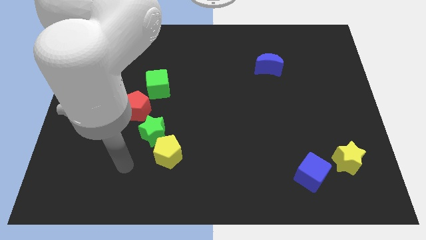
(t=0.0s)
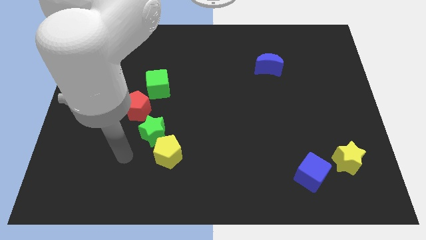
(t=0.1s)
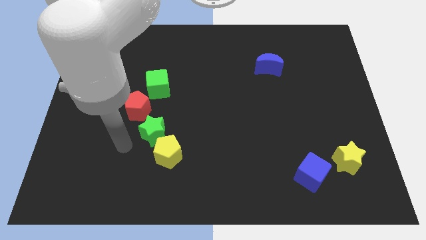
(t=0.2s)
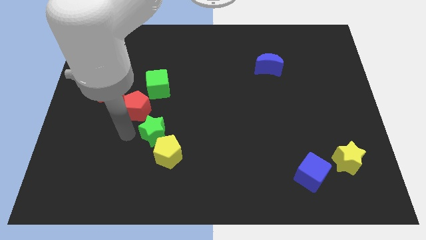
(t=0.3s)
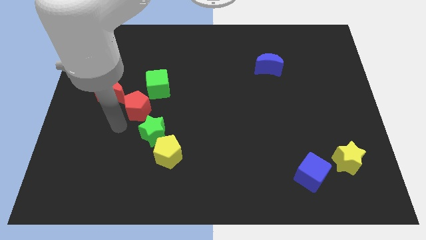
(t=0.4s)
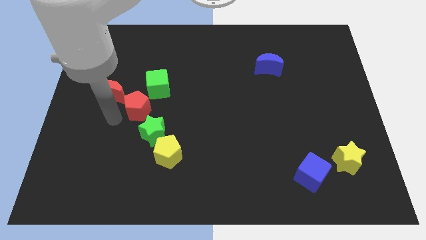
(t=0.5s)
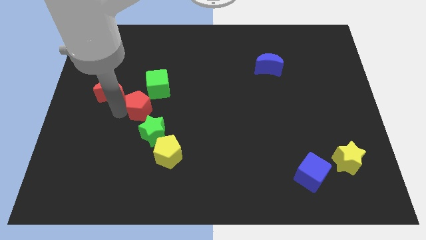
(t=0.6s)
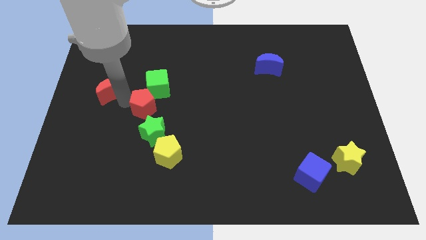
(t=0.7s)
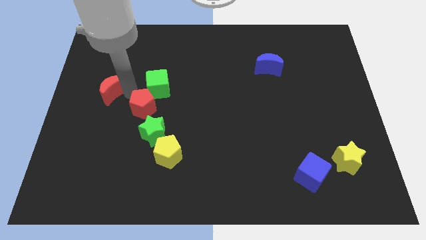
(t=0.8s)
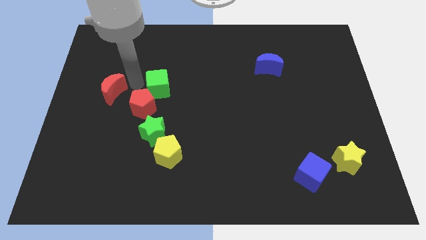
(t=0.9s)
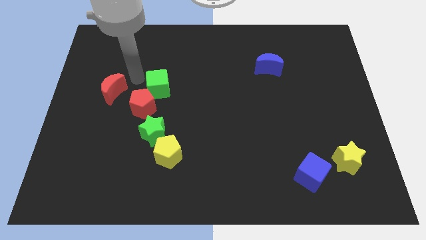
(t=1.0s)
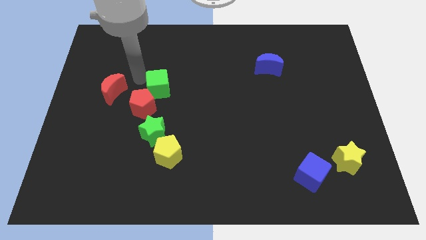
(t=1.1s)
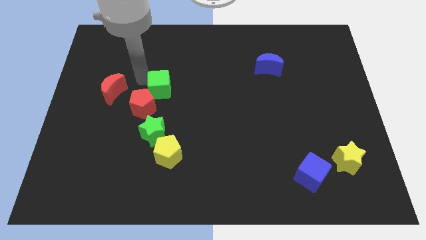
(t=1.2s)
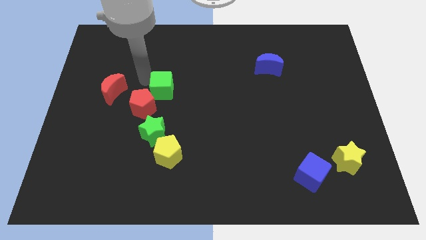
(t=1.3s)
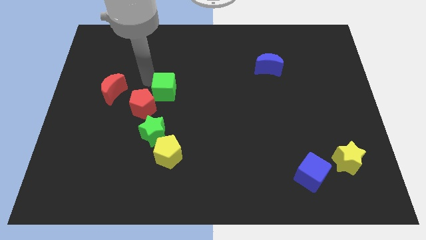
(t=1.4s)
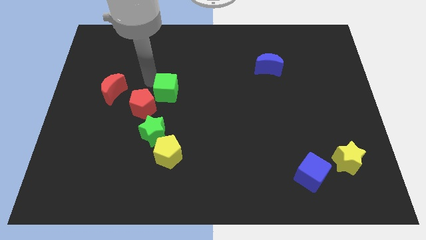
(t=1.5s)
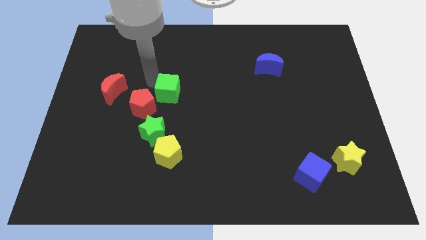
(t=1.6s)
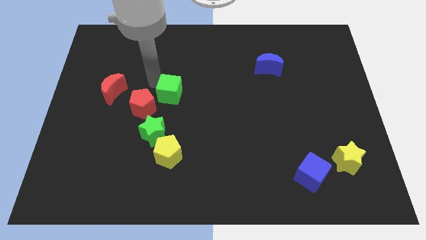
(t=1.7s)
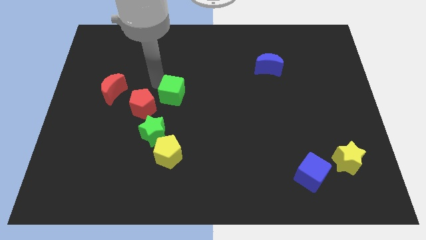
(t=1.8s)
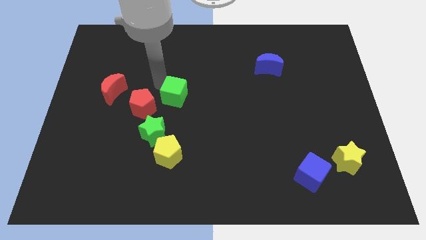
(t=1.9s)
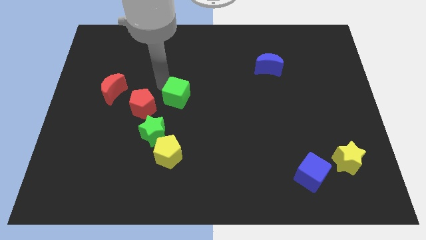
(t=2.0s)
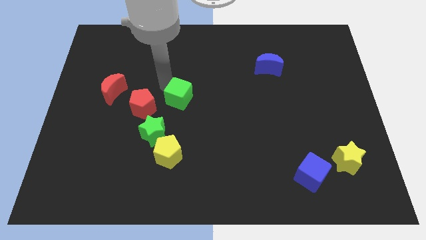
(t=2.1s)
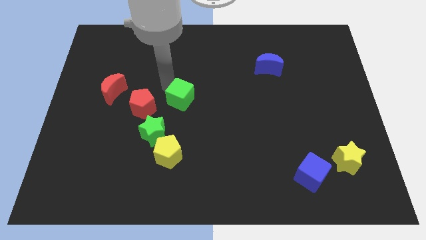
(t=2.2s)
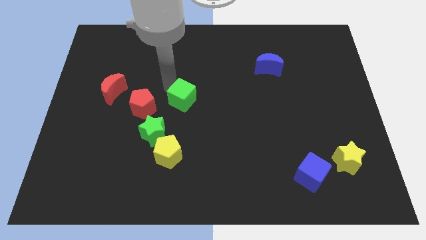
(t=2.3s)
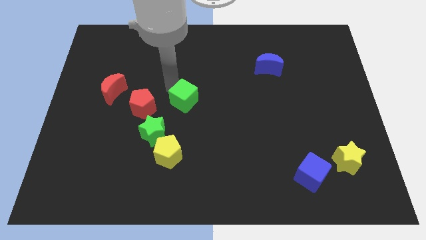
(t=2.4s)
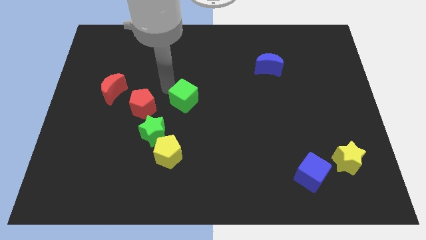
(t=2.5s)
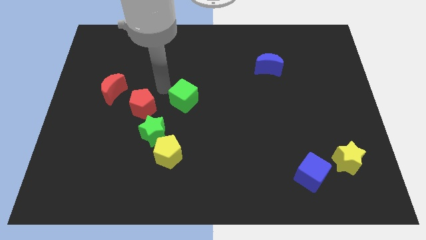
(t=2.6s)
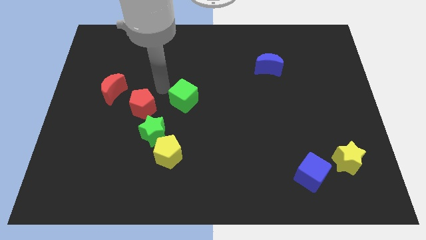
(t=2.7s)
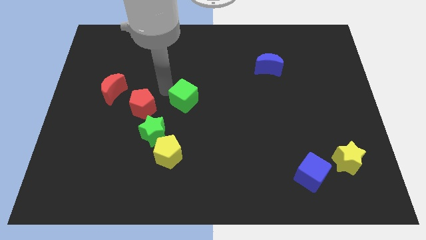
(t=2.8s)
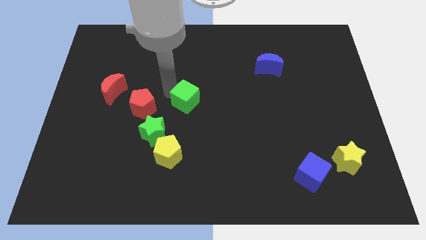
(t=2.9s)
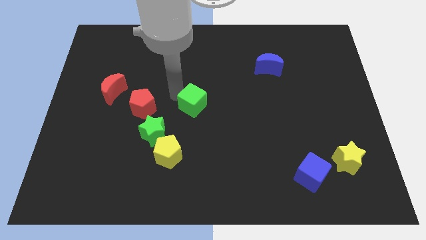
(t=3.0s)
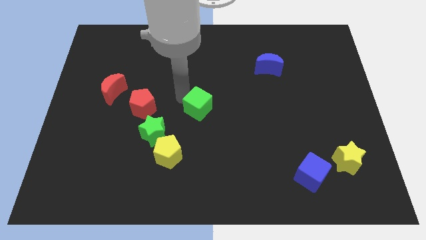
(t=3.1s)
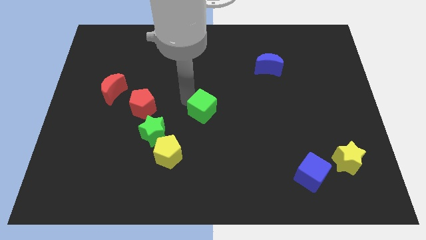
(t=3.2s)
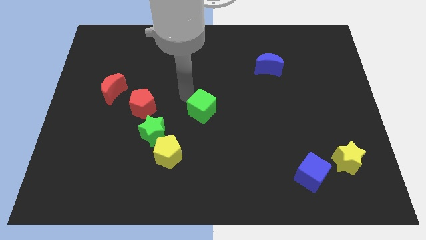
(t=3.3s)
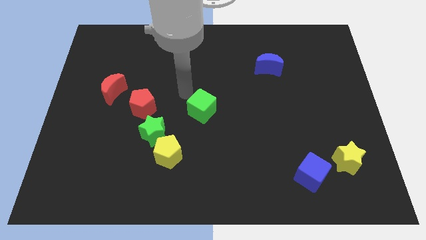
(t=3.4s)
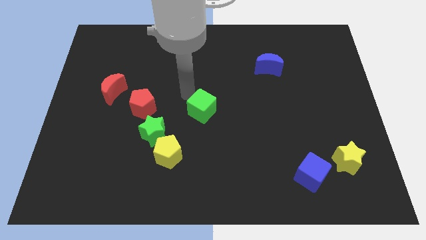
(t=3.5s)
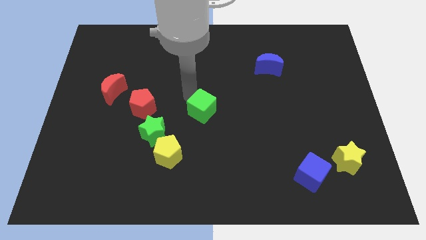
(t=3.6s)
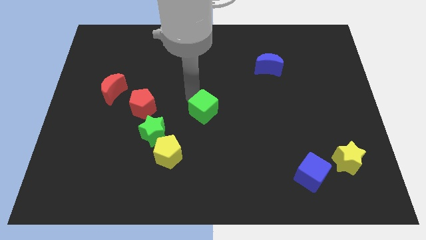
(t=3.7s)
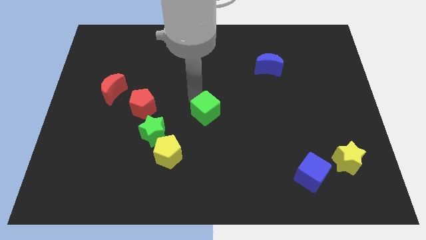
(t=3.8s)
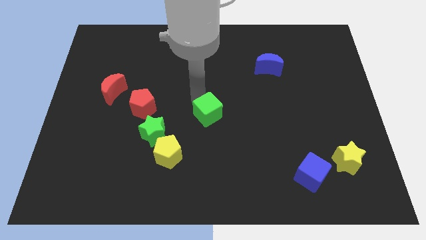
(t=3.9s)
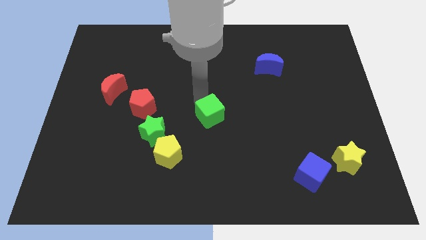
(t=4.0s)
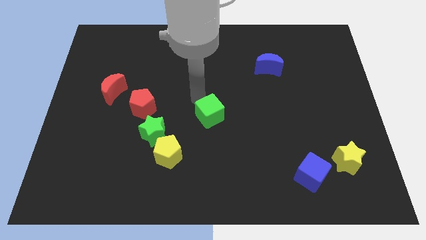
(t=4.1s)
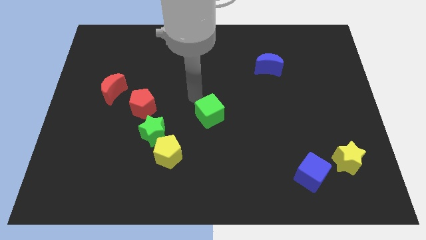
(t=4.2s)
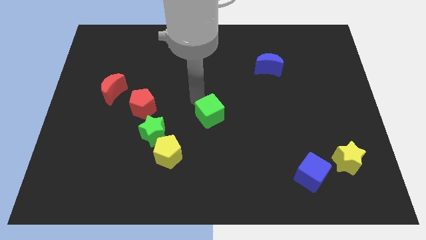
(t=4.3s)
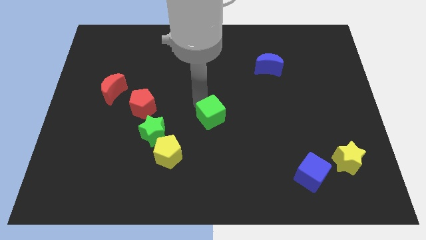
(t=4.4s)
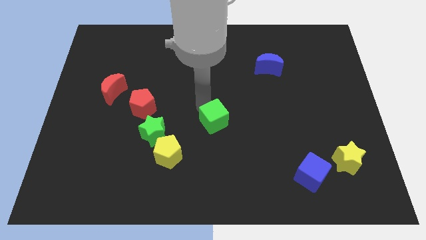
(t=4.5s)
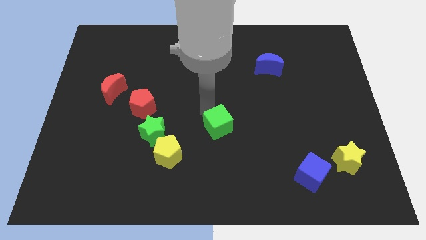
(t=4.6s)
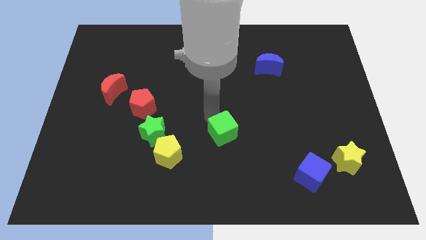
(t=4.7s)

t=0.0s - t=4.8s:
slide the green cube diagonally downwards and right

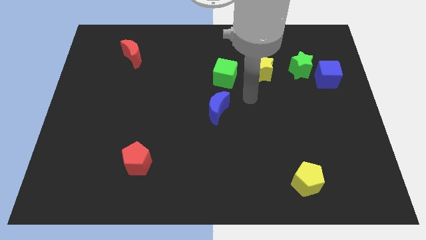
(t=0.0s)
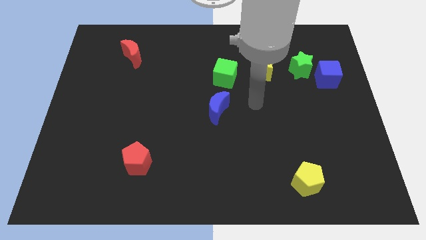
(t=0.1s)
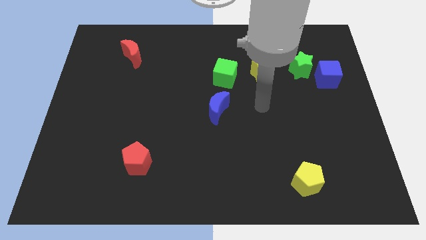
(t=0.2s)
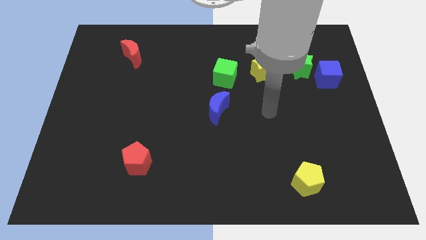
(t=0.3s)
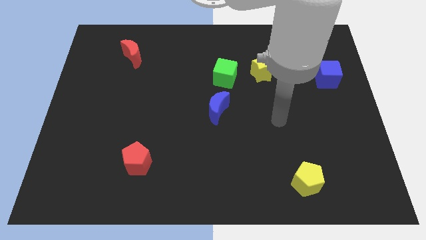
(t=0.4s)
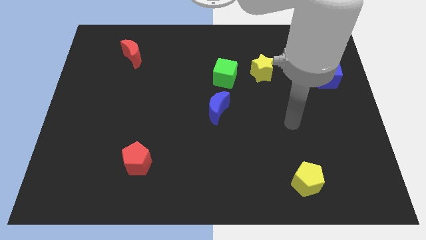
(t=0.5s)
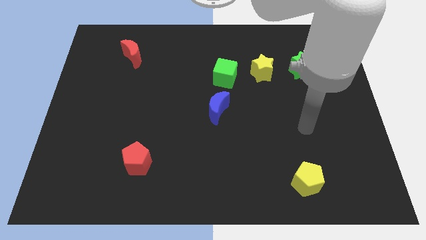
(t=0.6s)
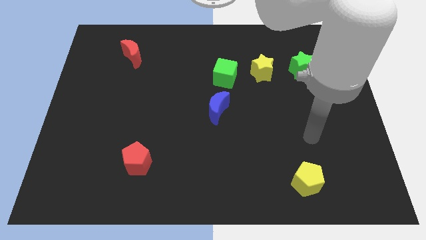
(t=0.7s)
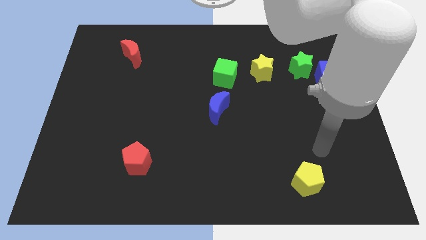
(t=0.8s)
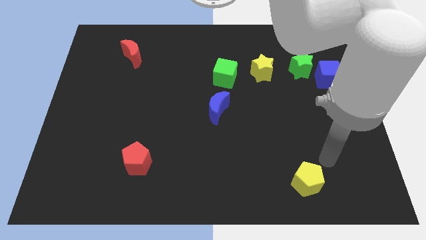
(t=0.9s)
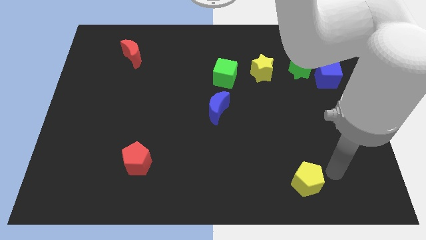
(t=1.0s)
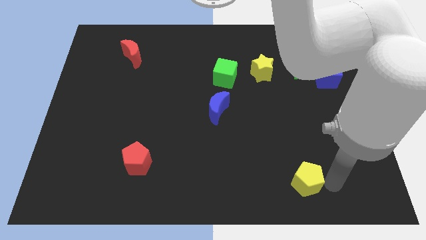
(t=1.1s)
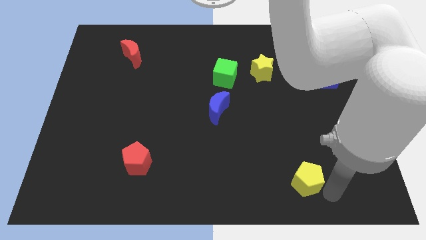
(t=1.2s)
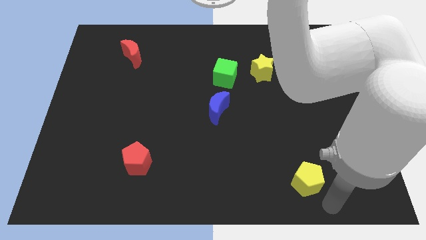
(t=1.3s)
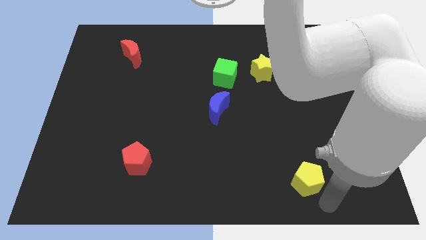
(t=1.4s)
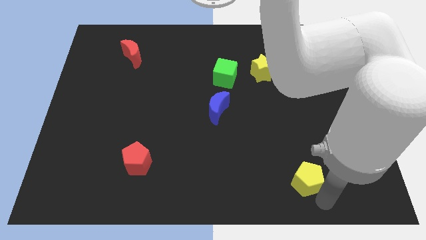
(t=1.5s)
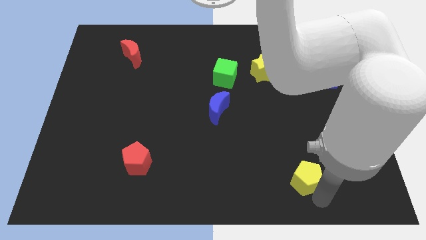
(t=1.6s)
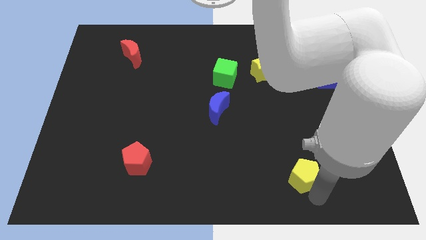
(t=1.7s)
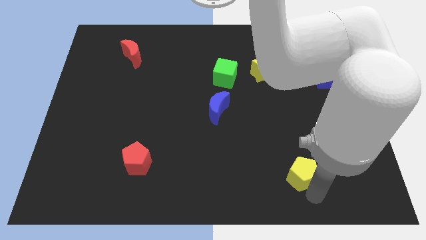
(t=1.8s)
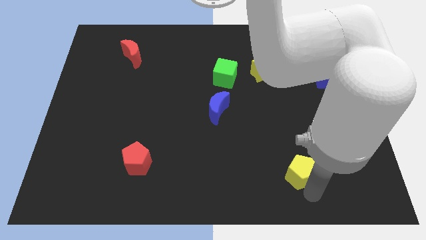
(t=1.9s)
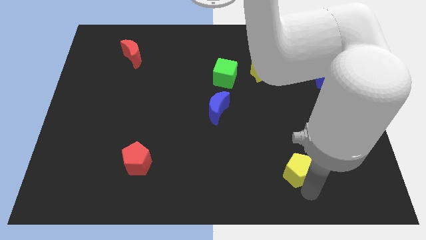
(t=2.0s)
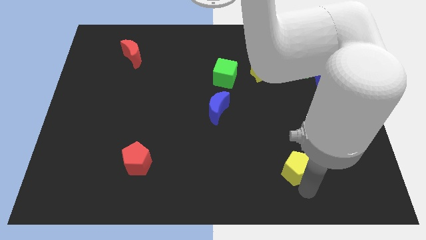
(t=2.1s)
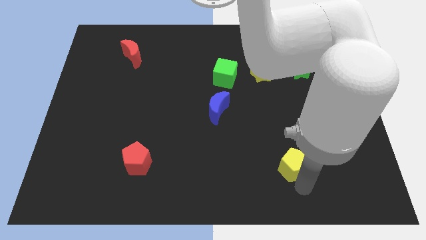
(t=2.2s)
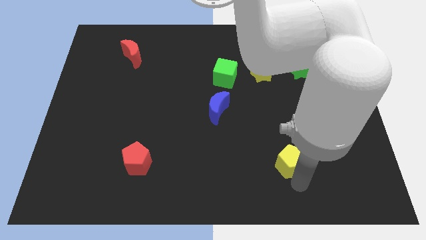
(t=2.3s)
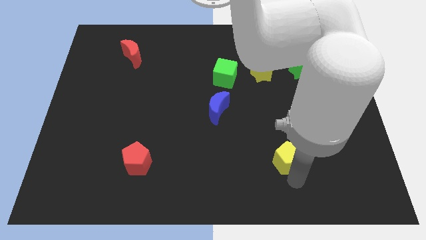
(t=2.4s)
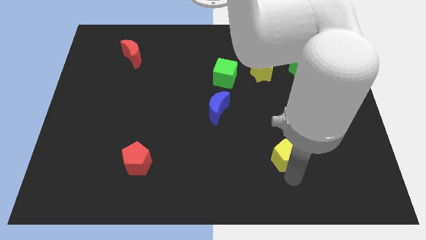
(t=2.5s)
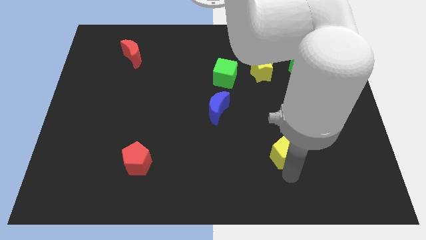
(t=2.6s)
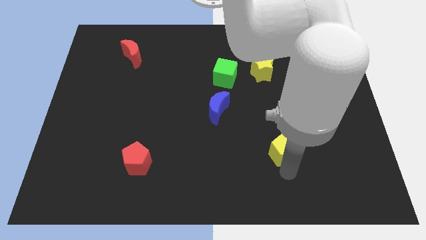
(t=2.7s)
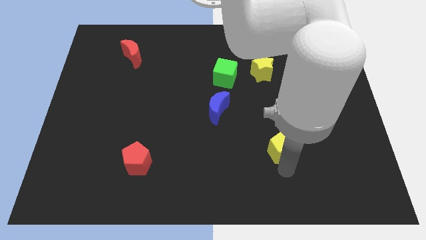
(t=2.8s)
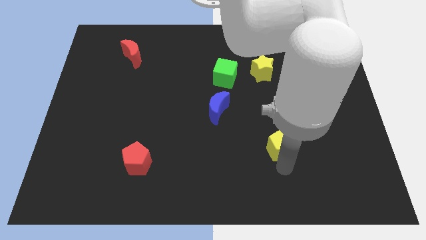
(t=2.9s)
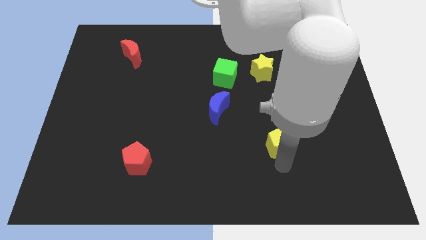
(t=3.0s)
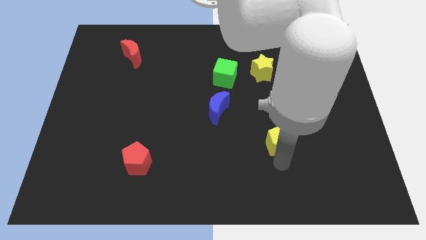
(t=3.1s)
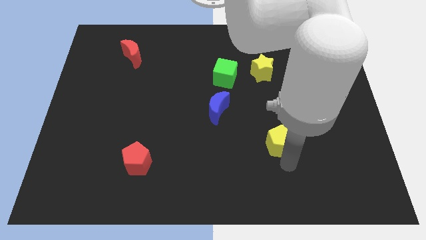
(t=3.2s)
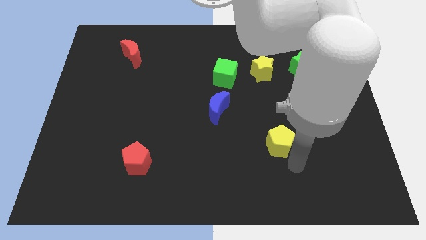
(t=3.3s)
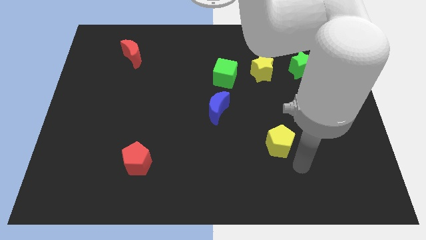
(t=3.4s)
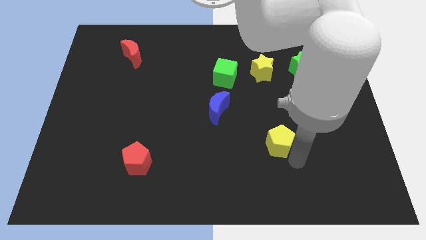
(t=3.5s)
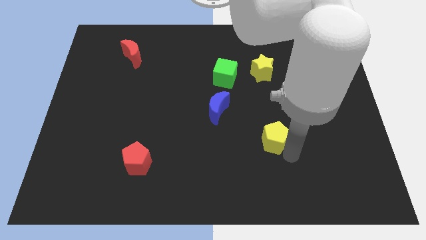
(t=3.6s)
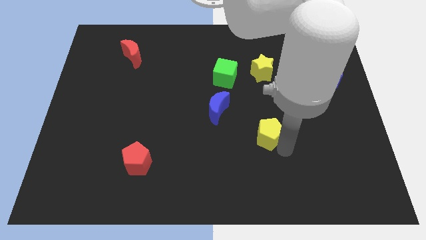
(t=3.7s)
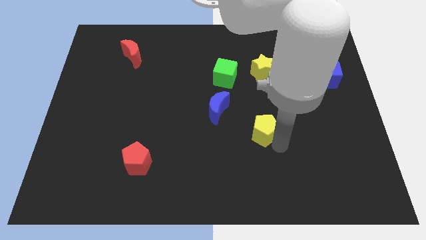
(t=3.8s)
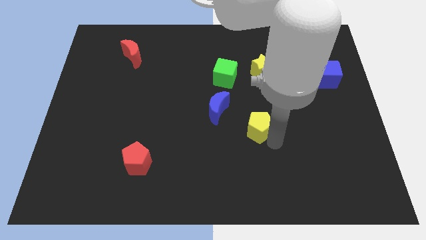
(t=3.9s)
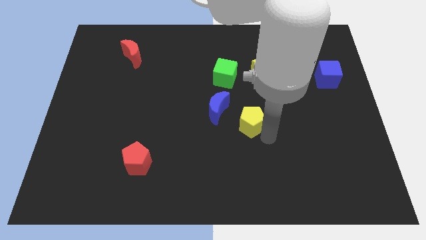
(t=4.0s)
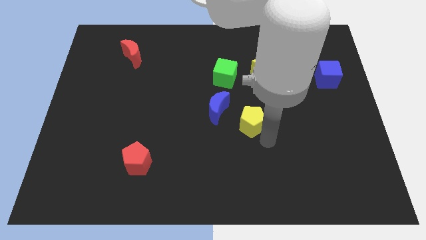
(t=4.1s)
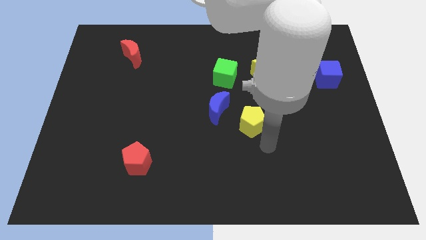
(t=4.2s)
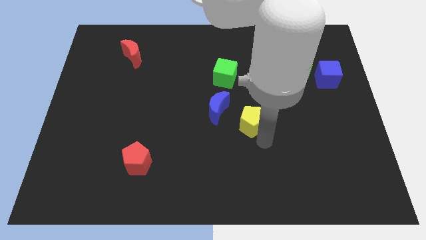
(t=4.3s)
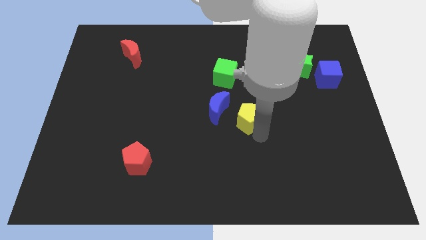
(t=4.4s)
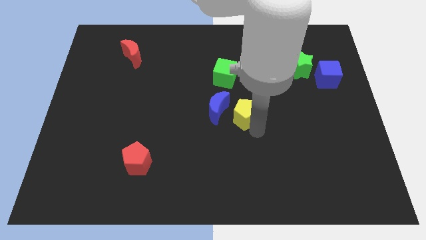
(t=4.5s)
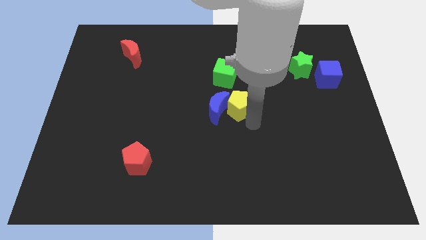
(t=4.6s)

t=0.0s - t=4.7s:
move the yellow pentagon upwards and then left
